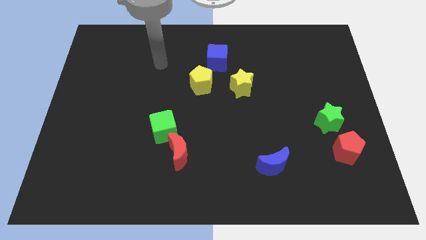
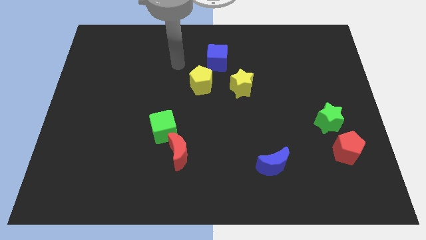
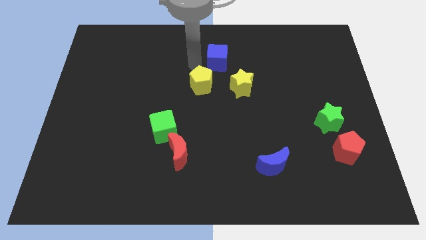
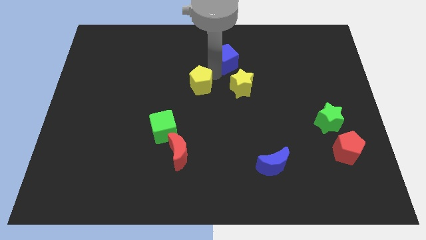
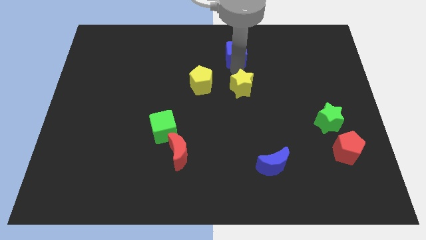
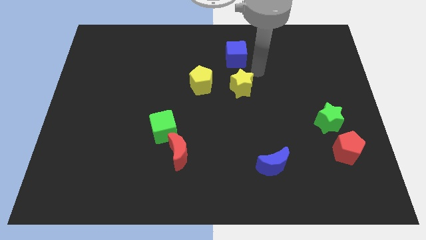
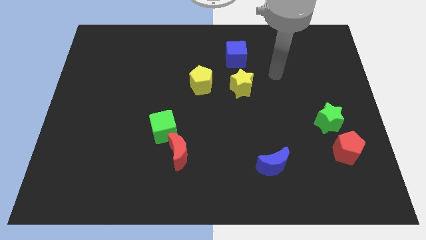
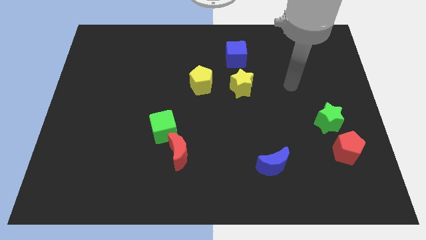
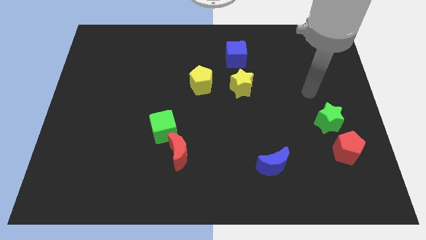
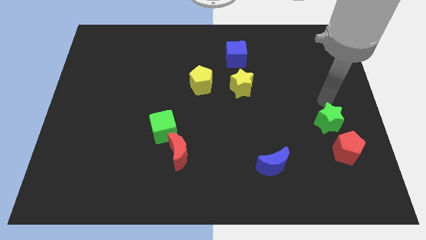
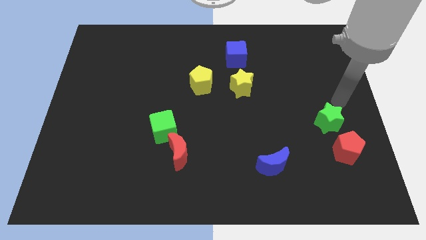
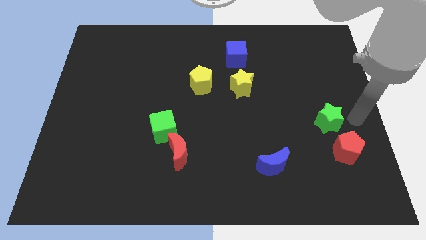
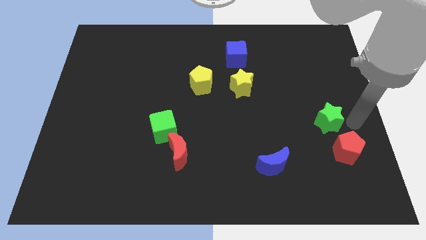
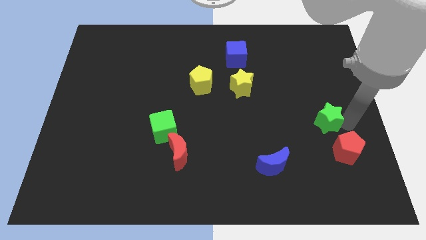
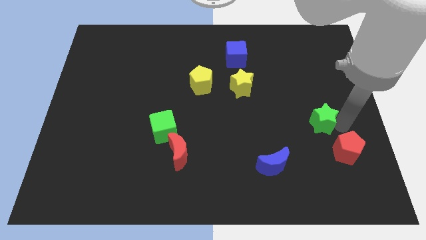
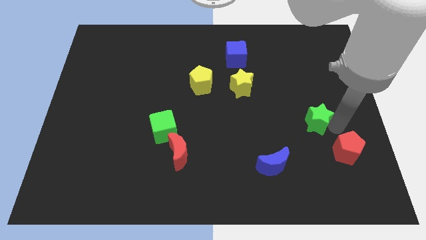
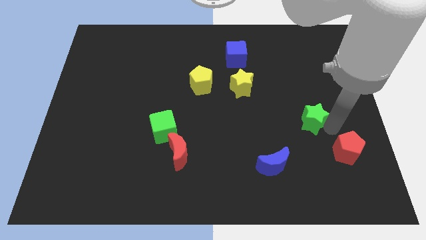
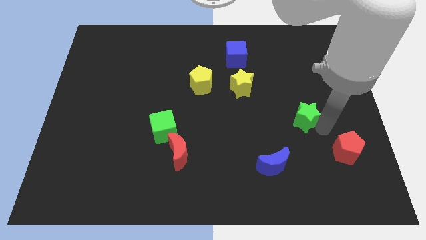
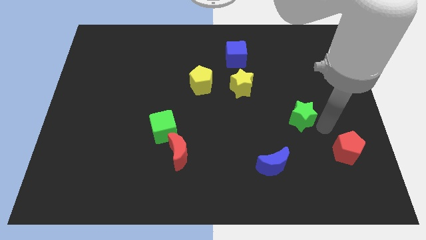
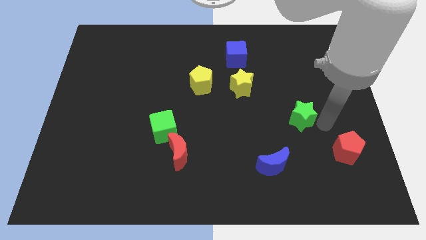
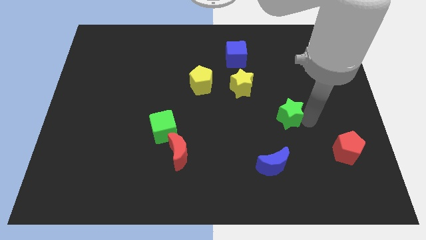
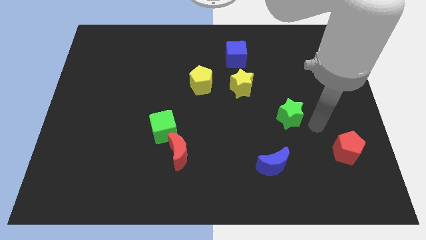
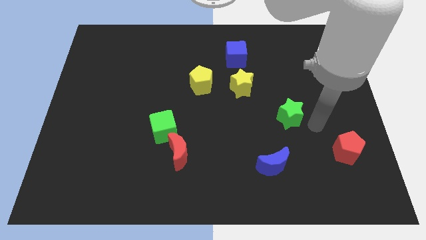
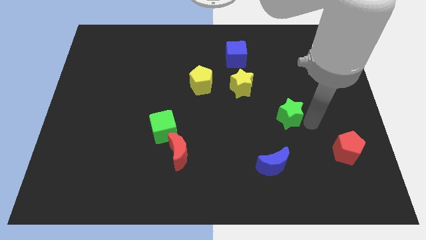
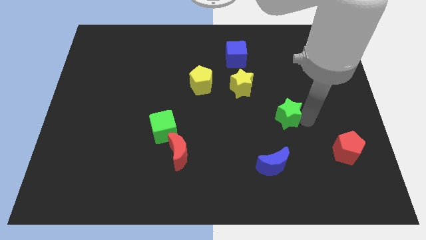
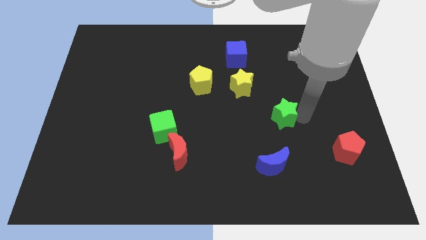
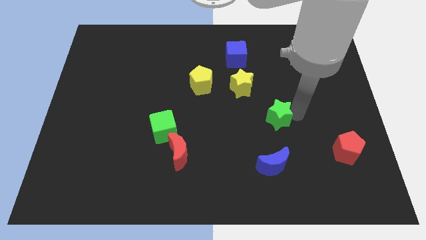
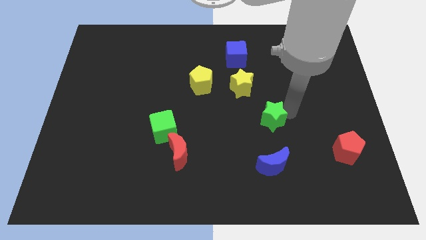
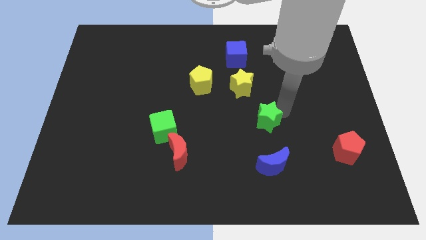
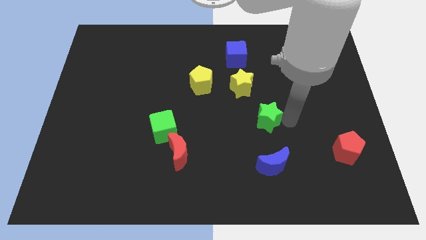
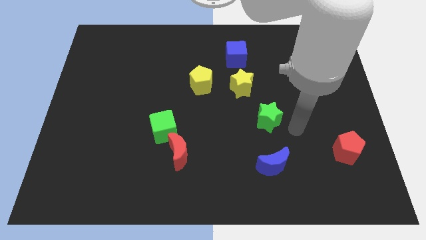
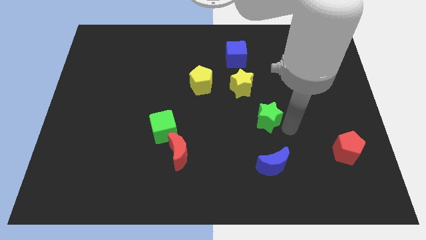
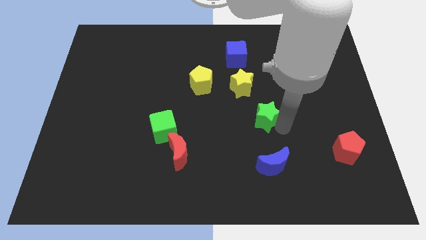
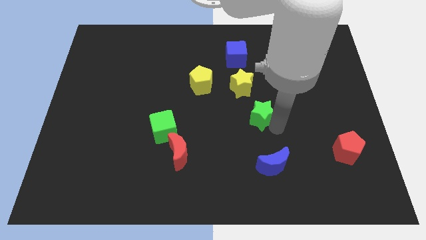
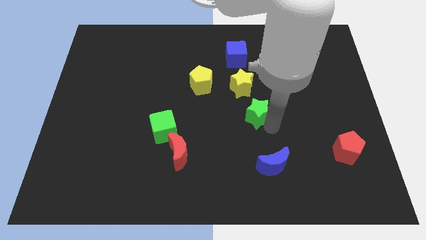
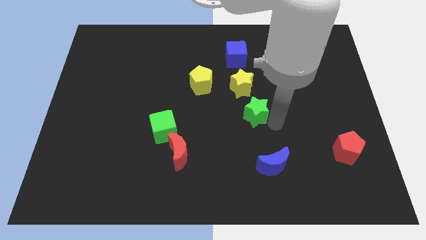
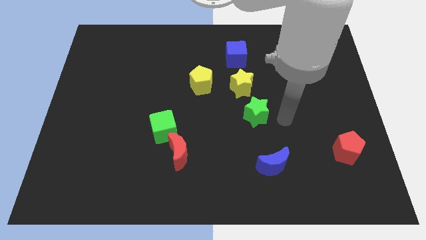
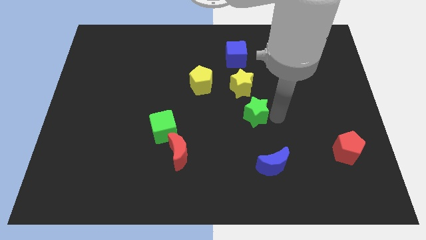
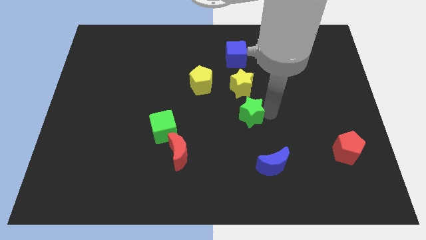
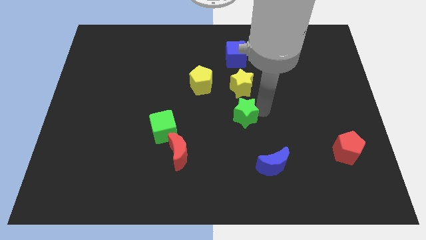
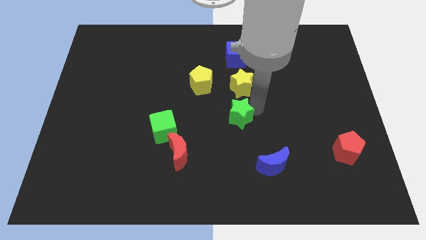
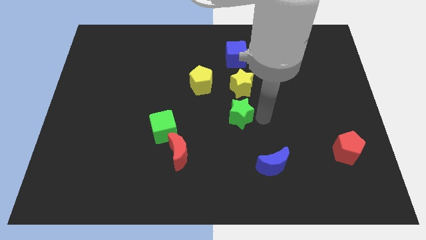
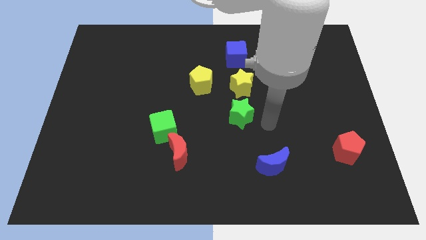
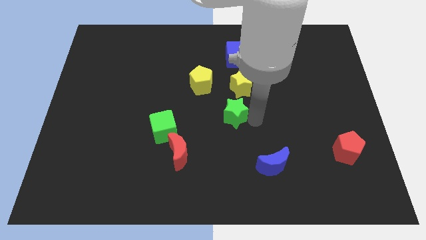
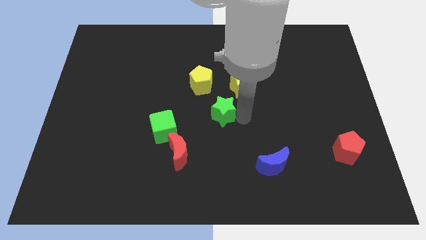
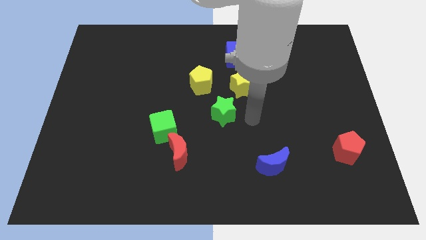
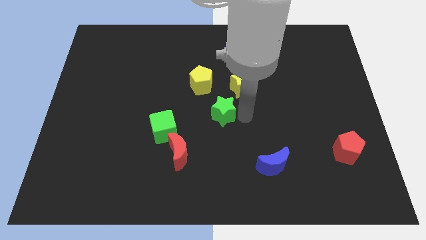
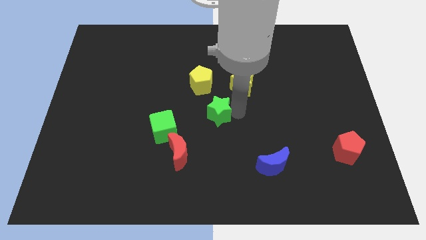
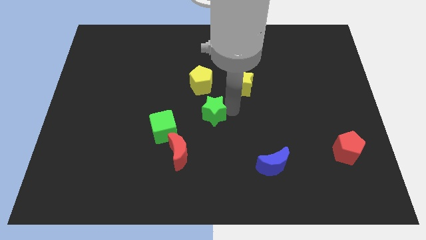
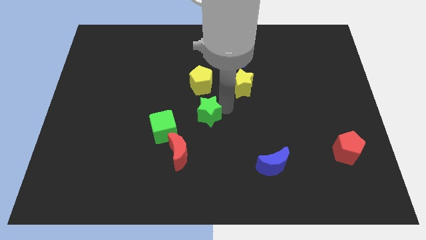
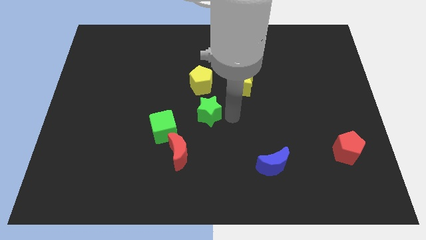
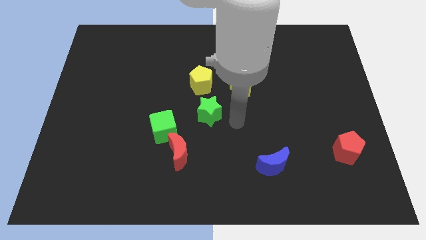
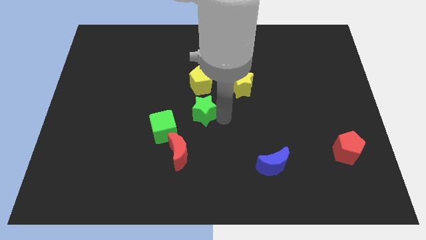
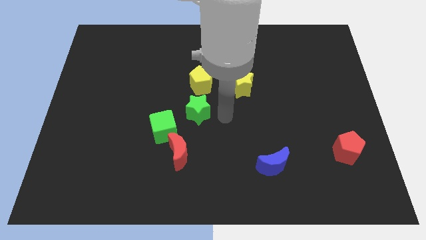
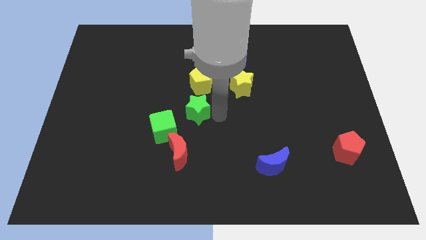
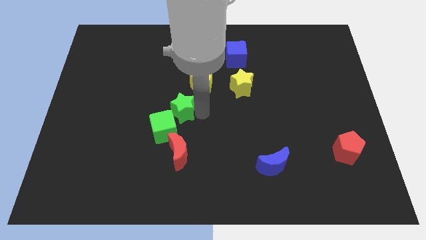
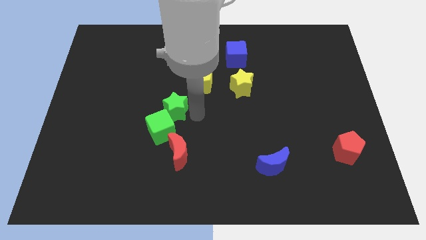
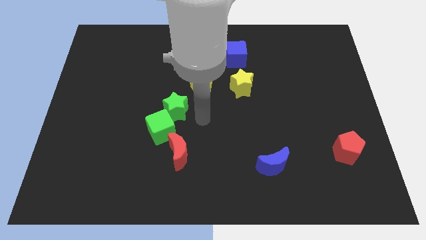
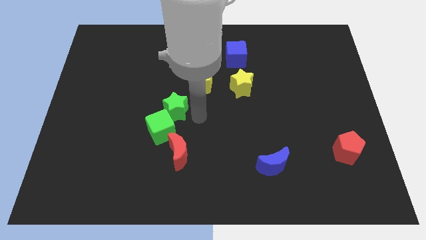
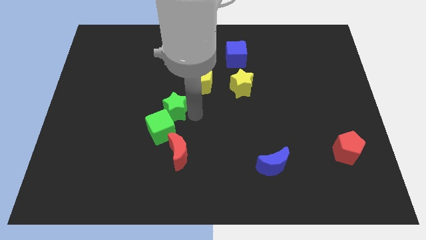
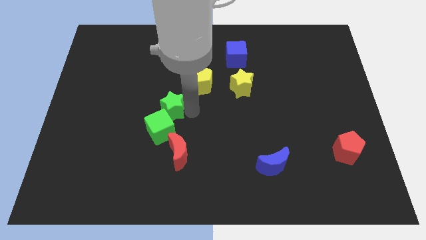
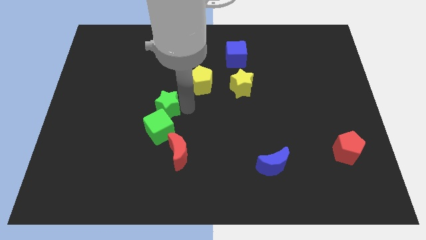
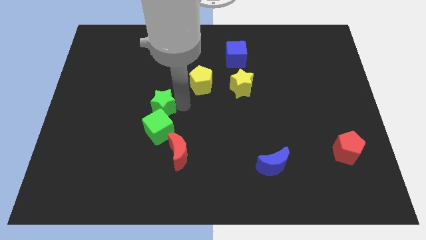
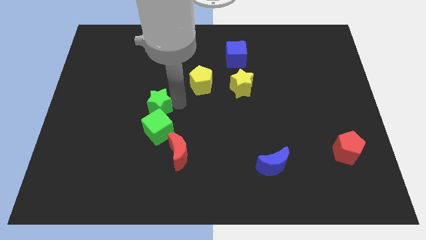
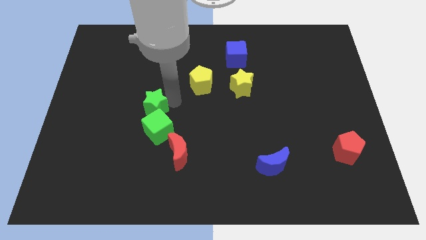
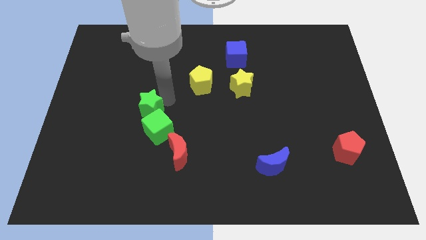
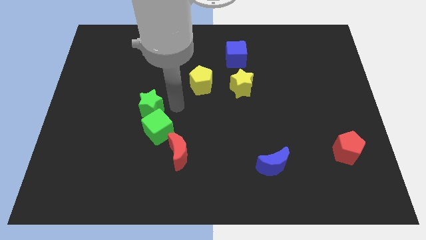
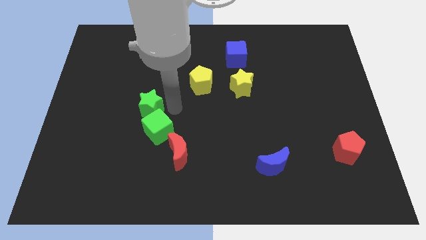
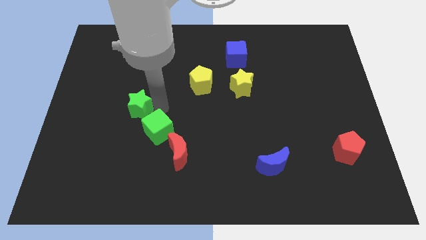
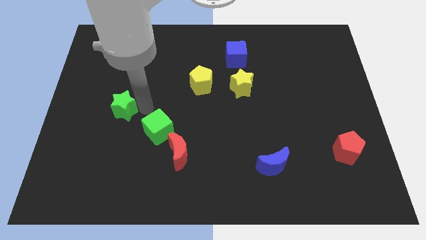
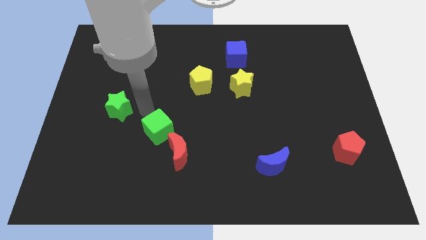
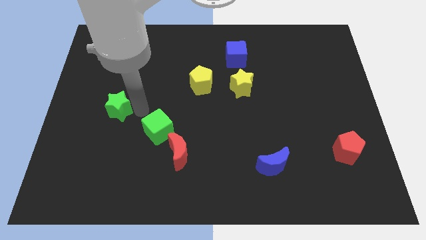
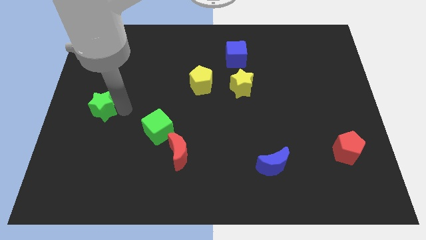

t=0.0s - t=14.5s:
slide the green star to the left side
